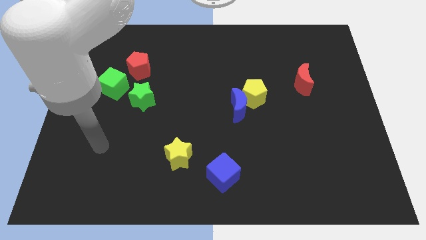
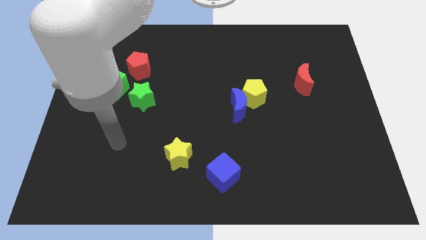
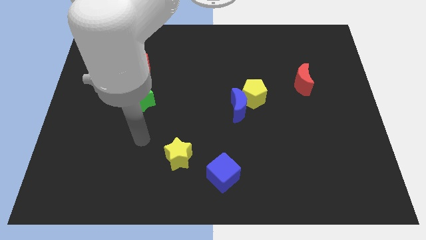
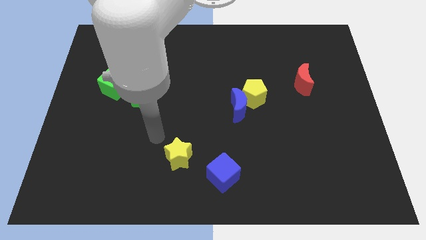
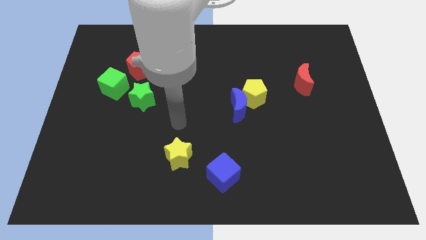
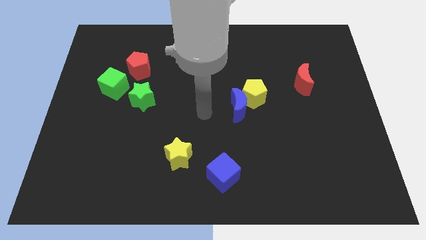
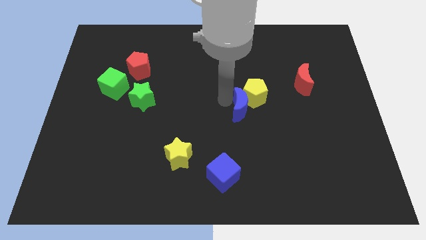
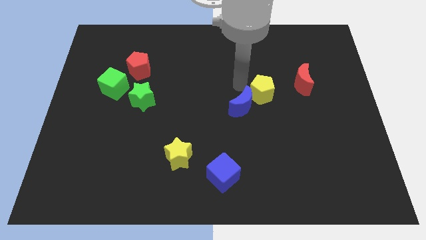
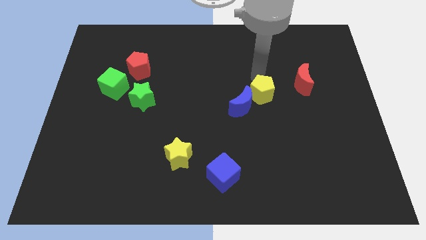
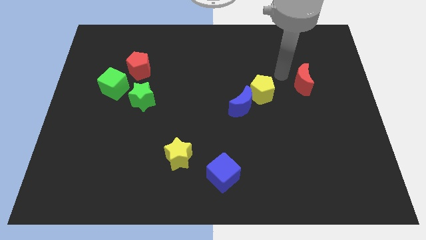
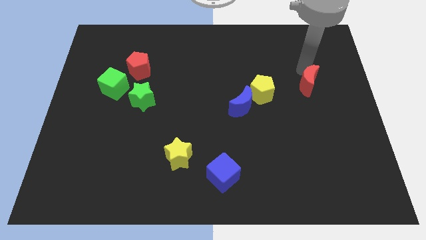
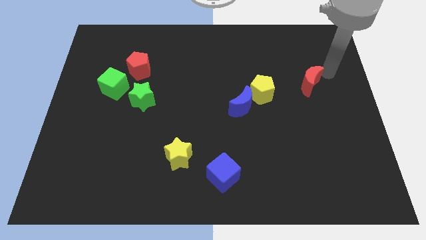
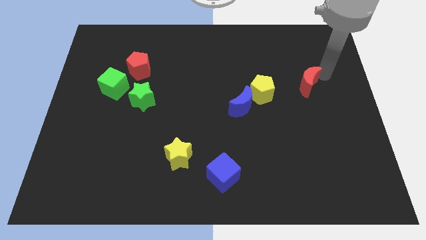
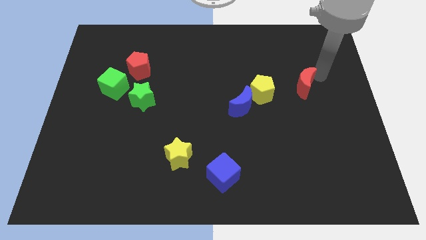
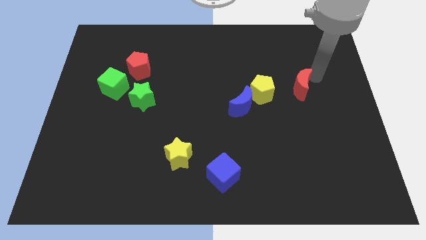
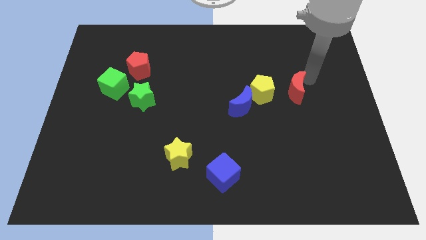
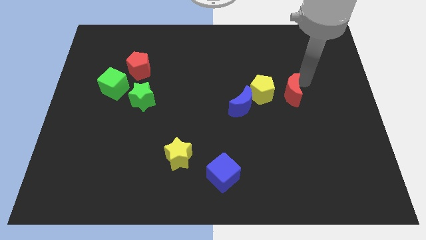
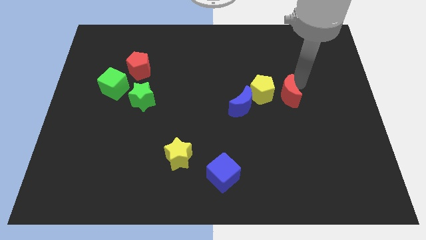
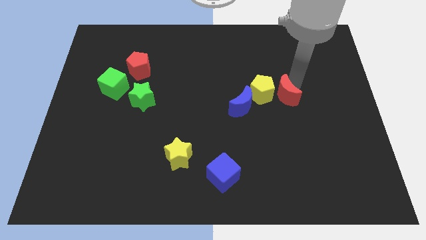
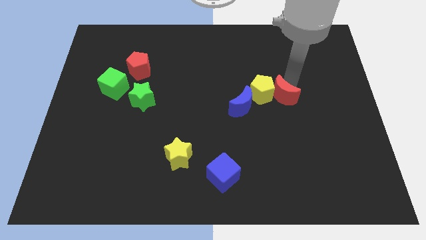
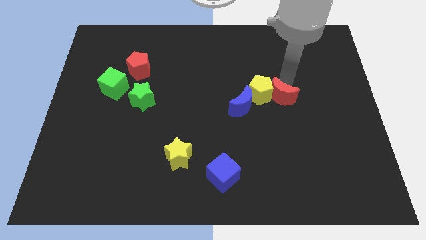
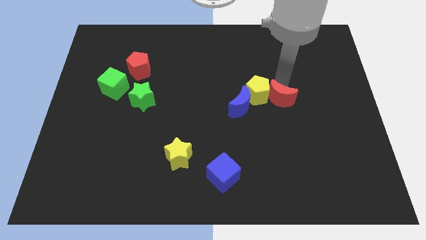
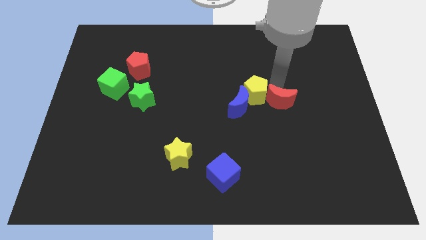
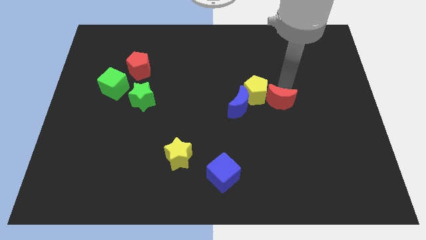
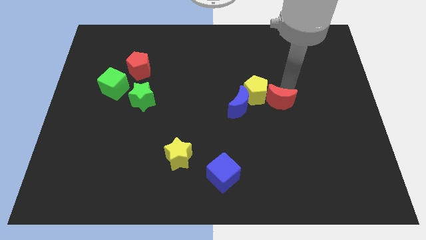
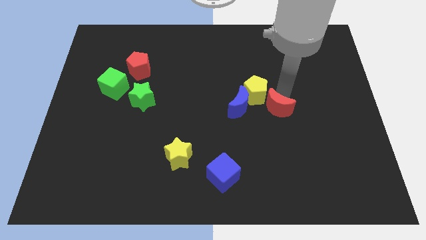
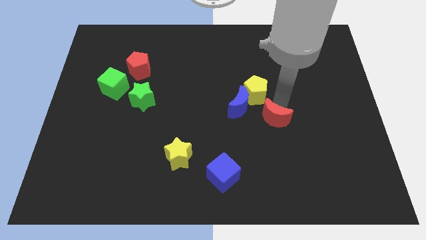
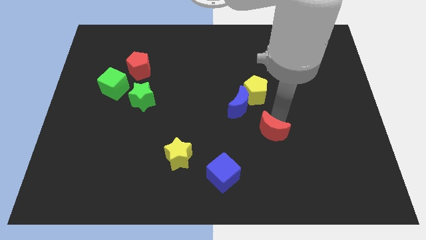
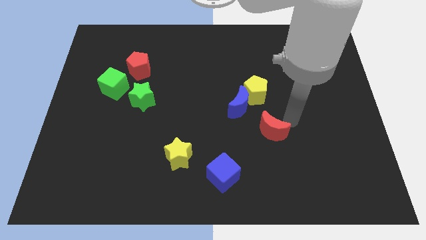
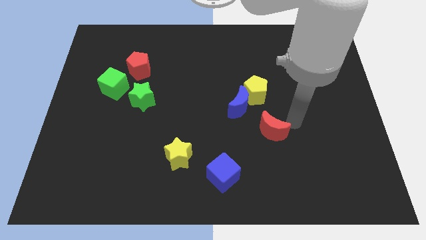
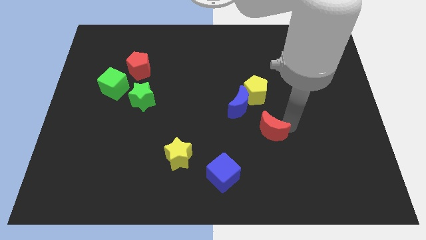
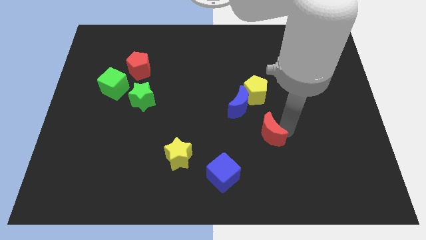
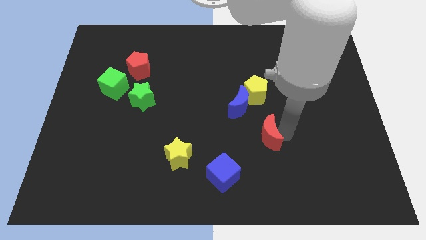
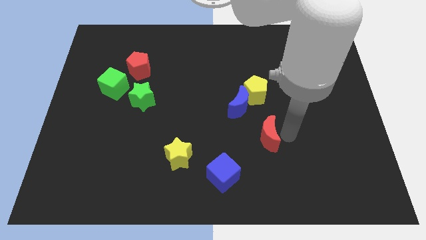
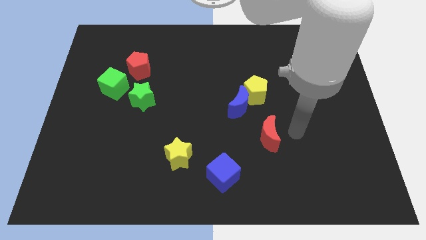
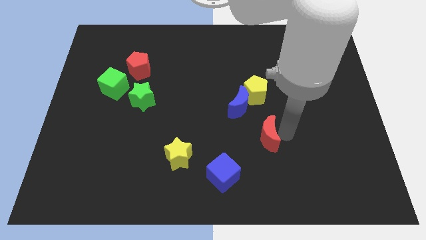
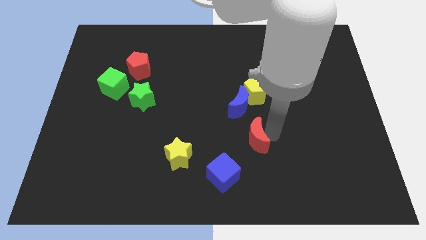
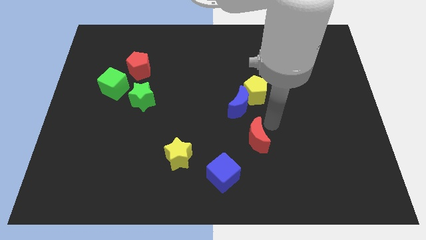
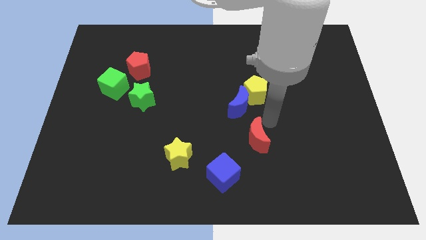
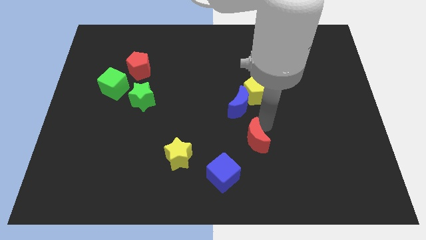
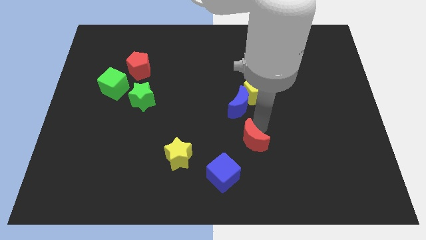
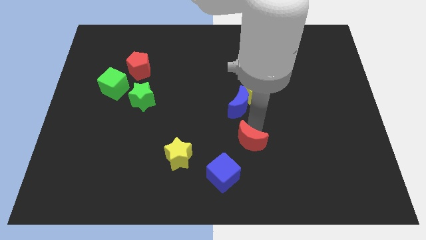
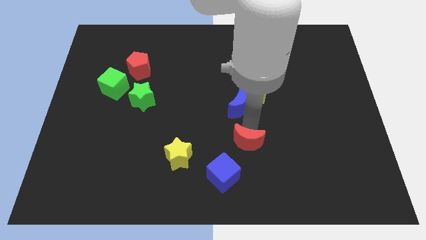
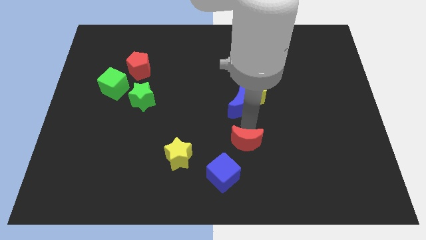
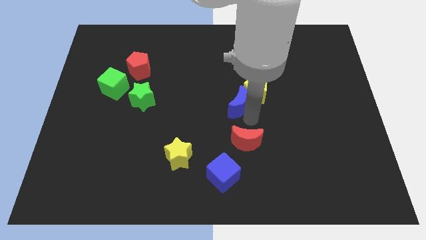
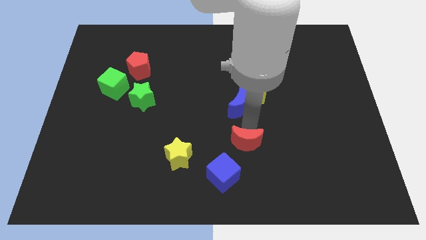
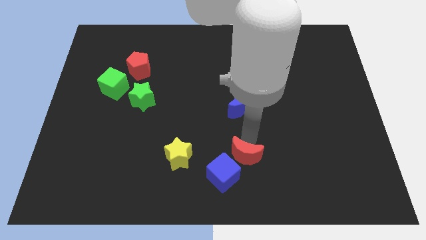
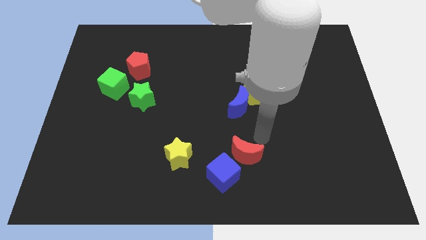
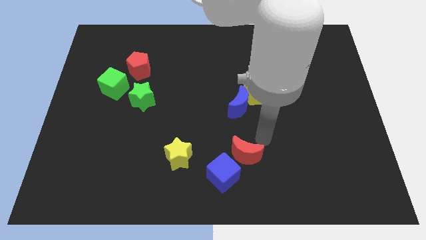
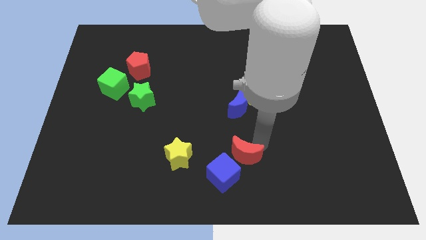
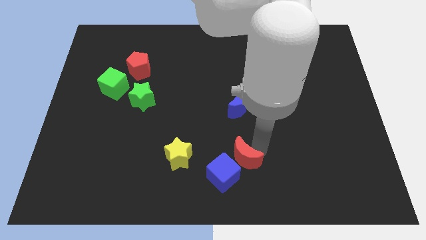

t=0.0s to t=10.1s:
slide the red moon next to the blue cube
